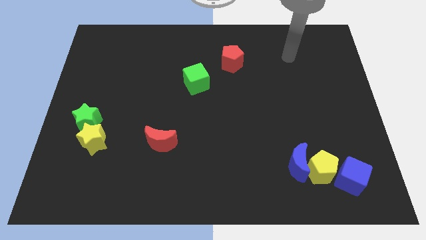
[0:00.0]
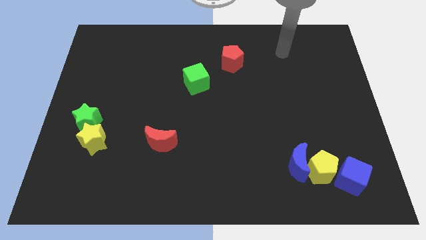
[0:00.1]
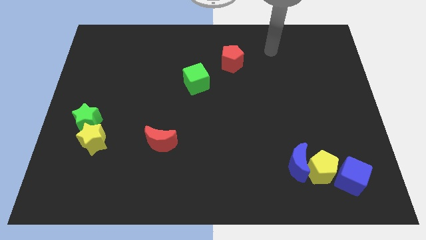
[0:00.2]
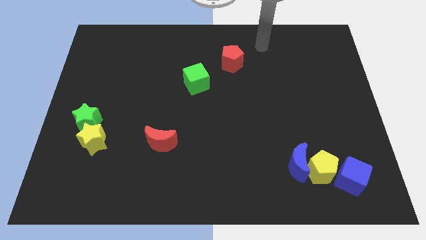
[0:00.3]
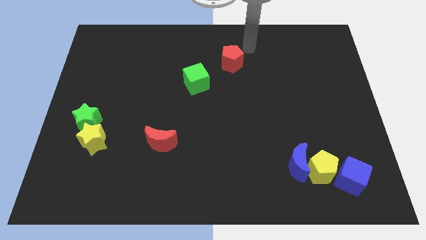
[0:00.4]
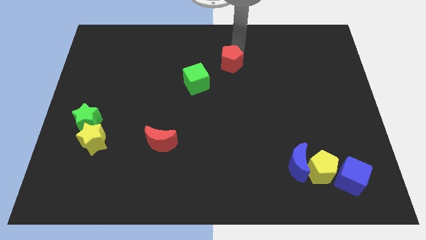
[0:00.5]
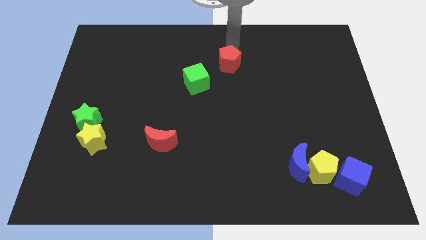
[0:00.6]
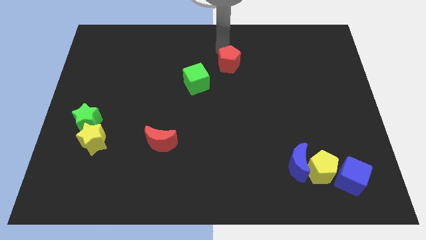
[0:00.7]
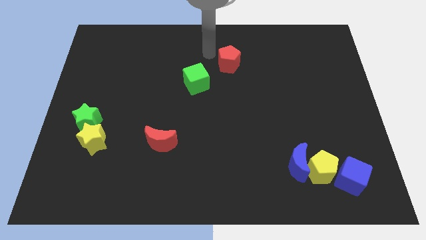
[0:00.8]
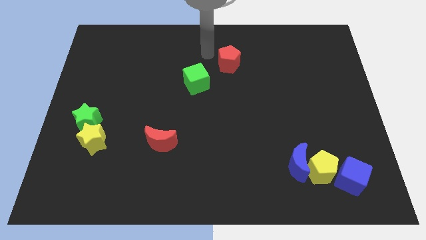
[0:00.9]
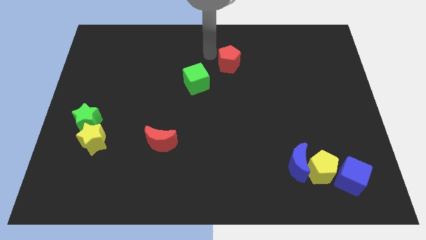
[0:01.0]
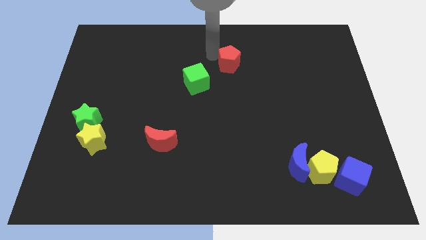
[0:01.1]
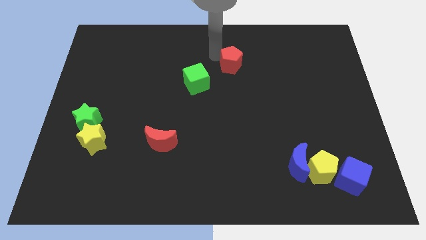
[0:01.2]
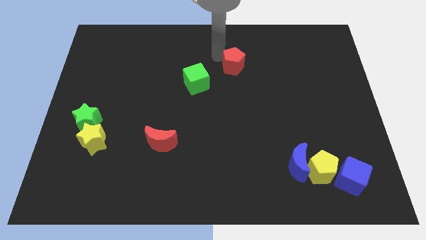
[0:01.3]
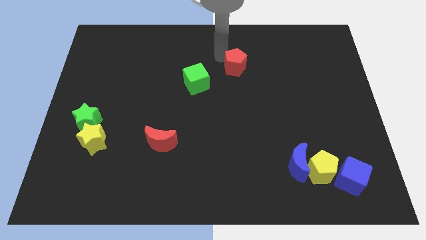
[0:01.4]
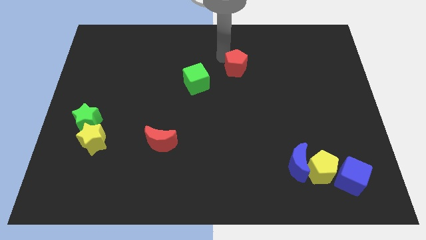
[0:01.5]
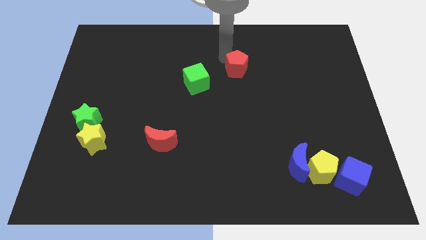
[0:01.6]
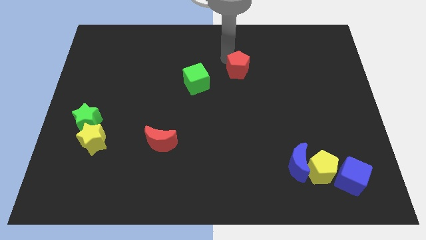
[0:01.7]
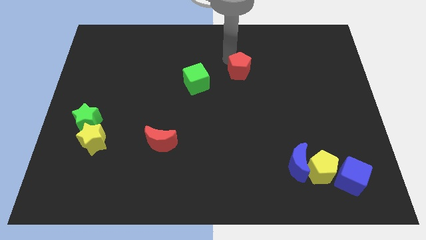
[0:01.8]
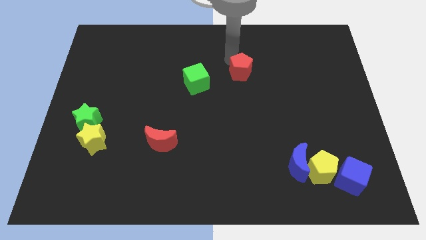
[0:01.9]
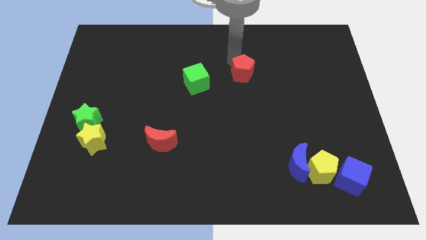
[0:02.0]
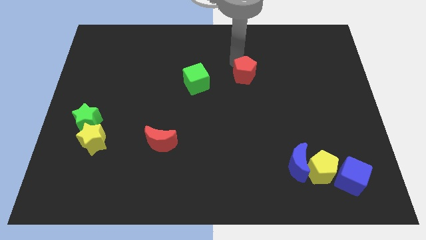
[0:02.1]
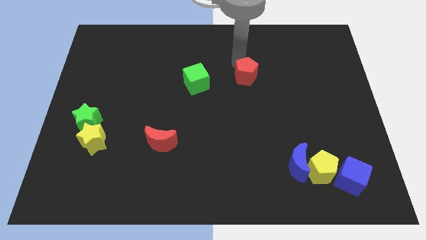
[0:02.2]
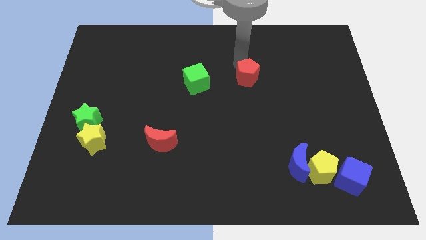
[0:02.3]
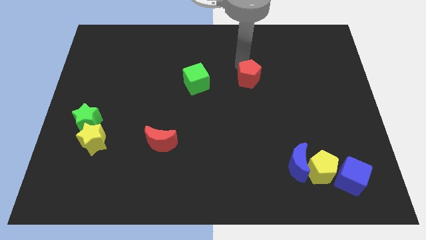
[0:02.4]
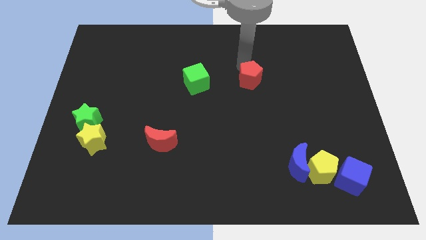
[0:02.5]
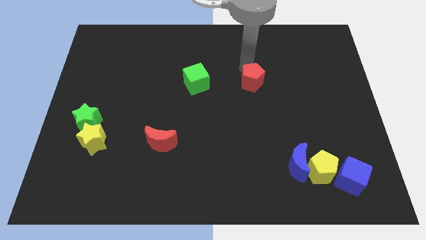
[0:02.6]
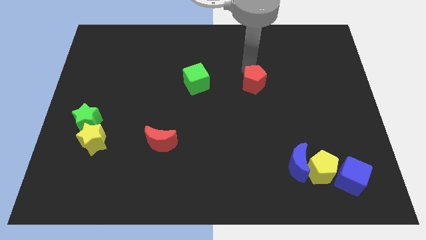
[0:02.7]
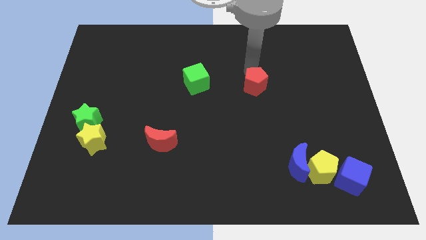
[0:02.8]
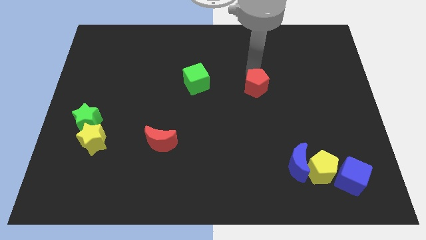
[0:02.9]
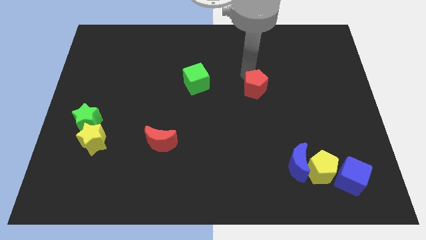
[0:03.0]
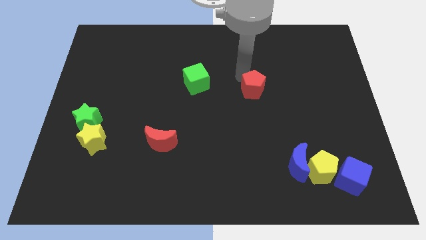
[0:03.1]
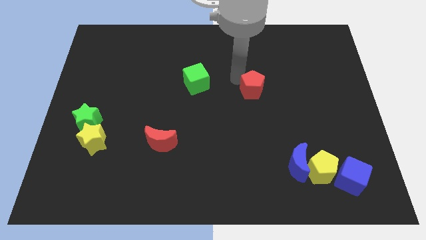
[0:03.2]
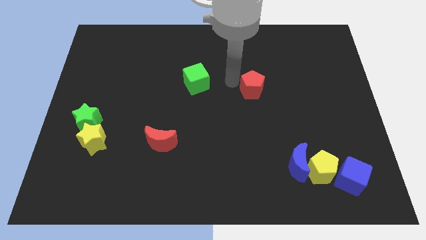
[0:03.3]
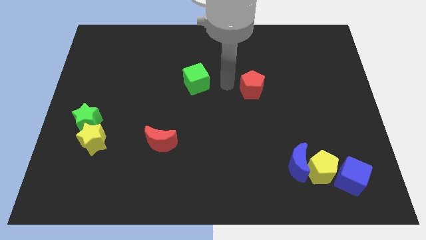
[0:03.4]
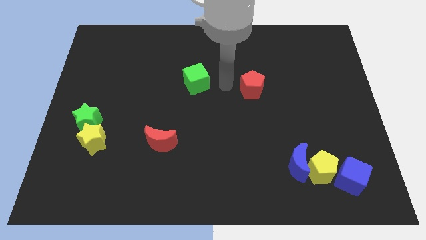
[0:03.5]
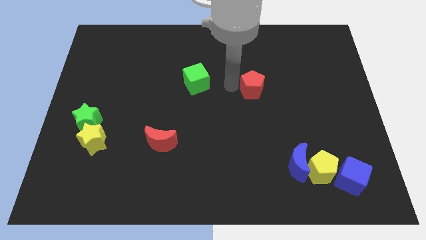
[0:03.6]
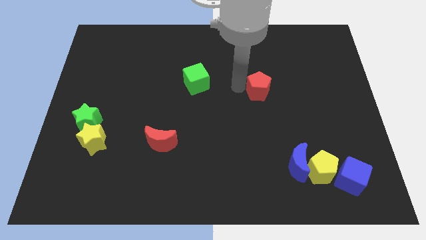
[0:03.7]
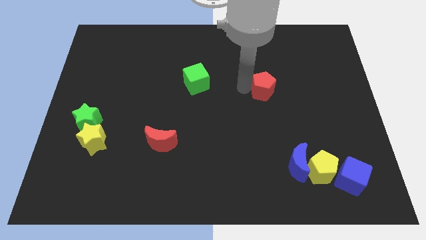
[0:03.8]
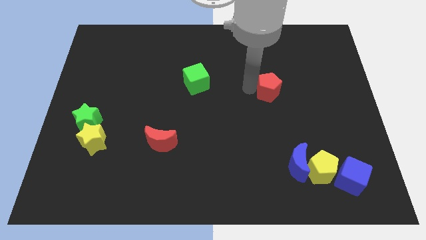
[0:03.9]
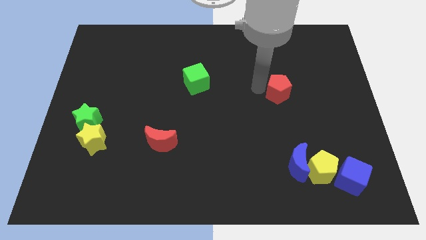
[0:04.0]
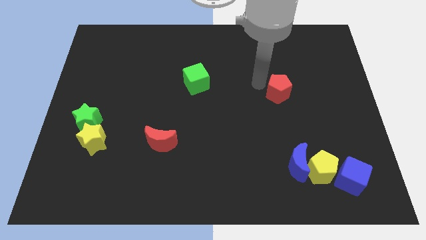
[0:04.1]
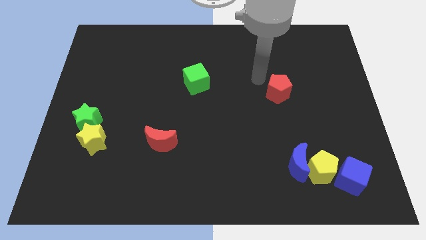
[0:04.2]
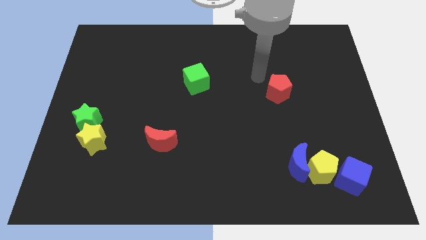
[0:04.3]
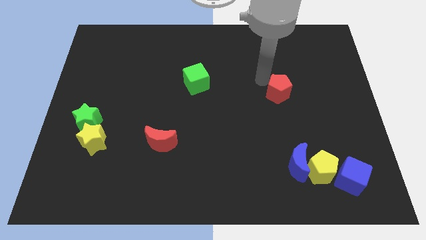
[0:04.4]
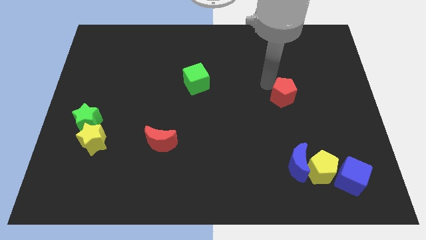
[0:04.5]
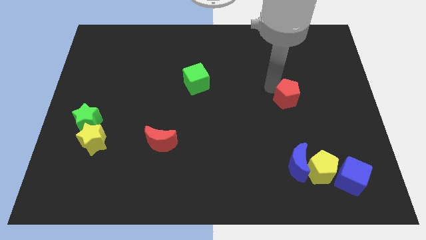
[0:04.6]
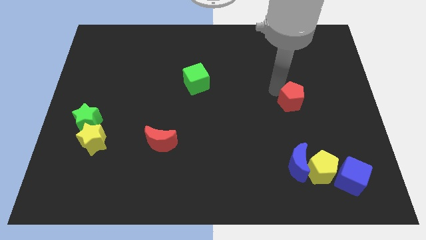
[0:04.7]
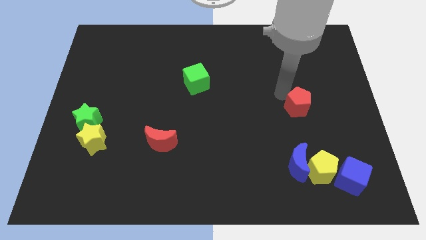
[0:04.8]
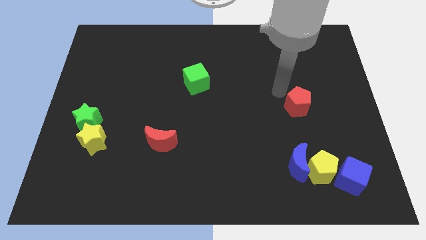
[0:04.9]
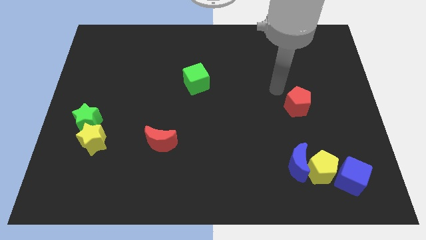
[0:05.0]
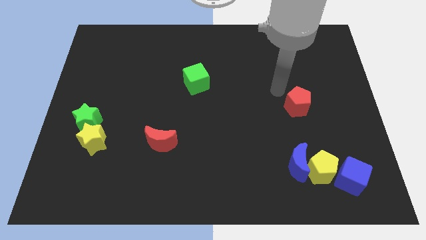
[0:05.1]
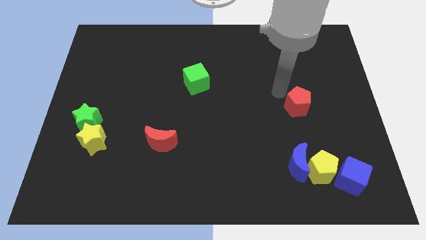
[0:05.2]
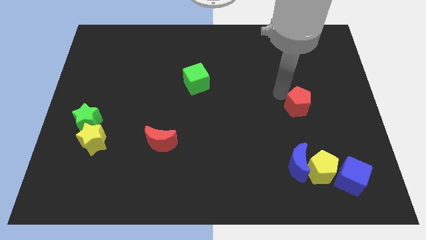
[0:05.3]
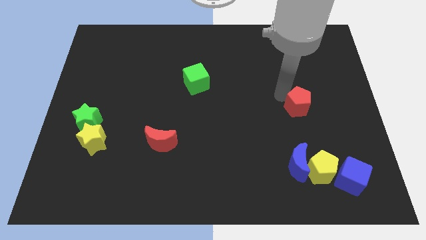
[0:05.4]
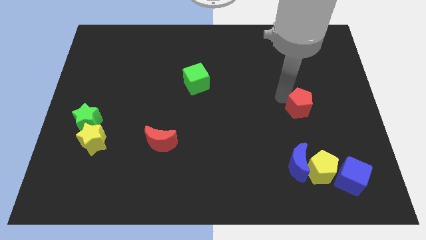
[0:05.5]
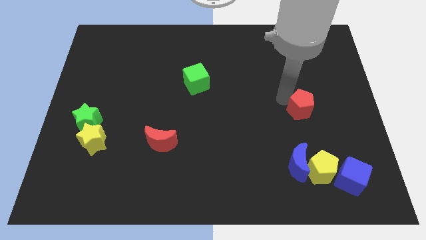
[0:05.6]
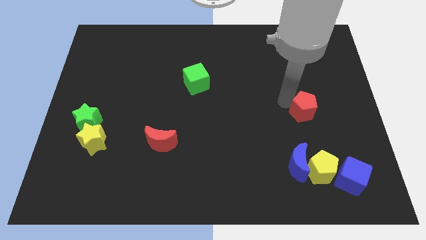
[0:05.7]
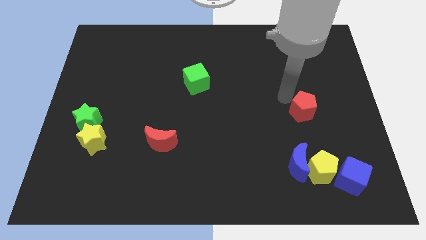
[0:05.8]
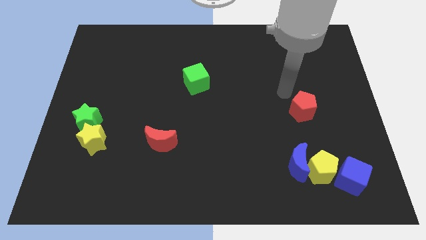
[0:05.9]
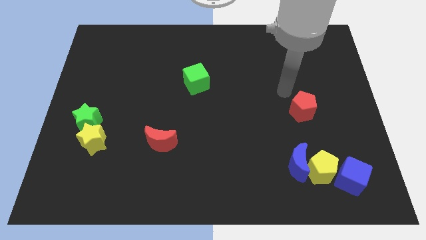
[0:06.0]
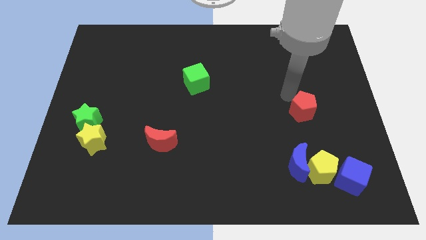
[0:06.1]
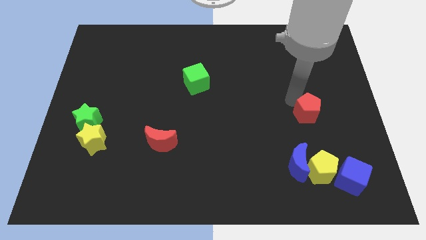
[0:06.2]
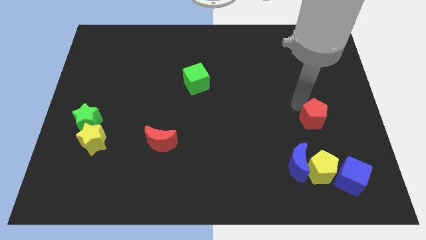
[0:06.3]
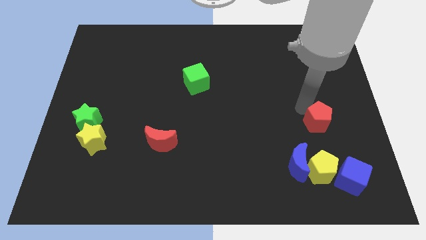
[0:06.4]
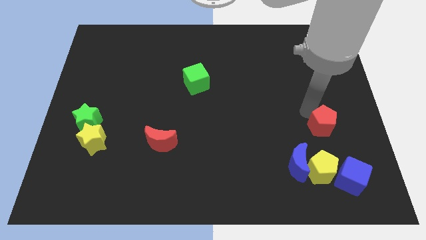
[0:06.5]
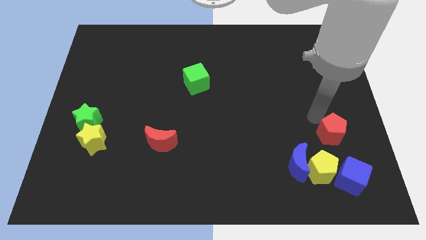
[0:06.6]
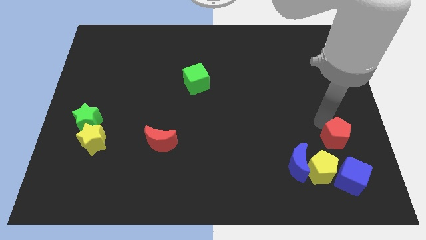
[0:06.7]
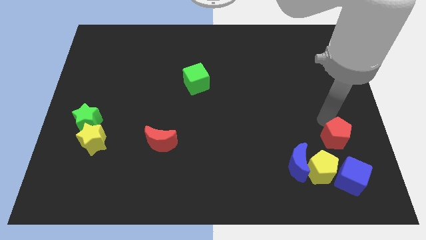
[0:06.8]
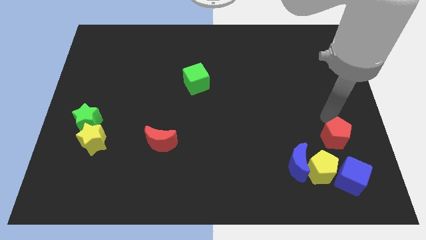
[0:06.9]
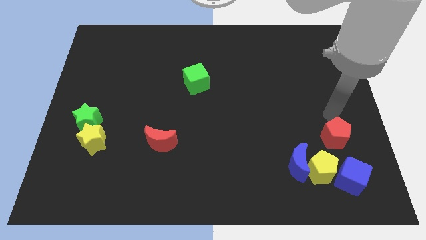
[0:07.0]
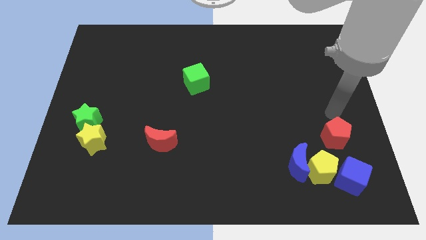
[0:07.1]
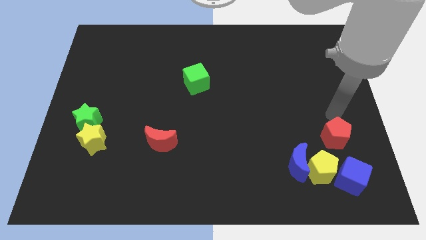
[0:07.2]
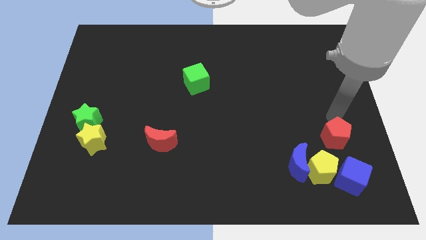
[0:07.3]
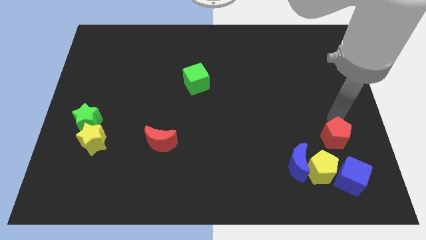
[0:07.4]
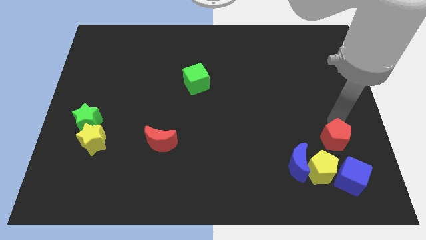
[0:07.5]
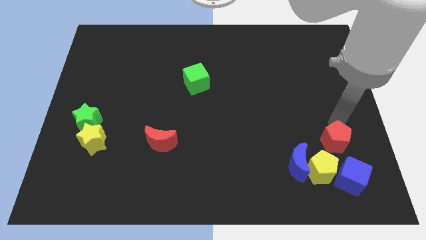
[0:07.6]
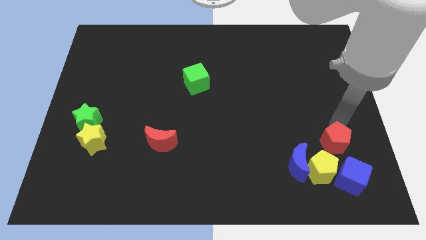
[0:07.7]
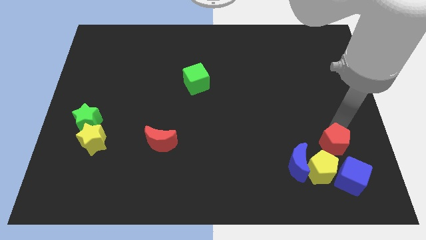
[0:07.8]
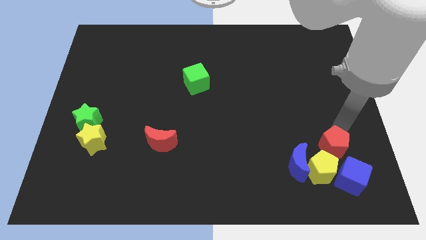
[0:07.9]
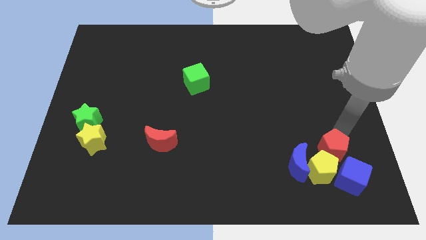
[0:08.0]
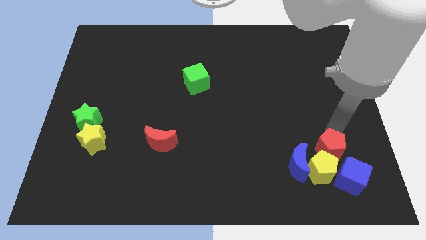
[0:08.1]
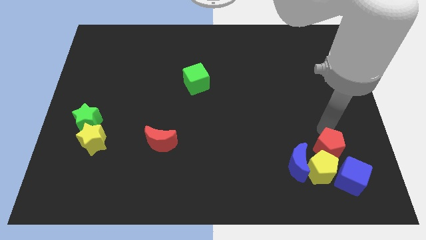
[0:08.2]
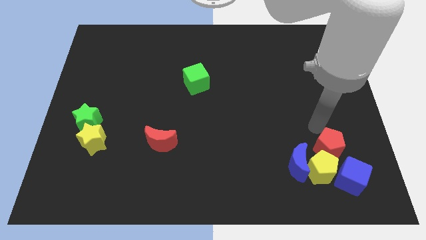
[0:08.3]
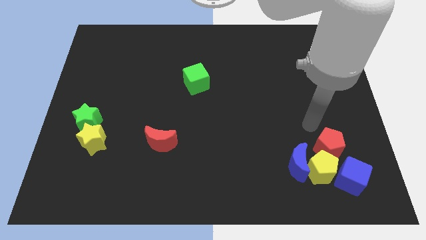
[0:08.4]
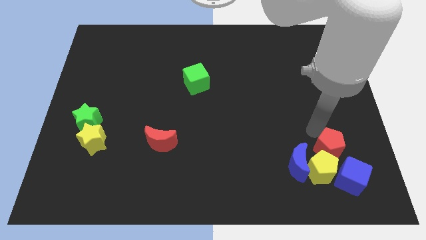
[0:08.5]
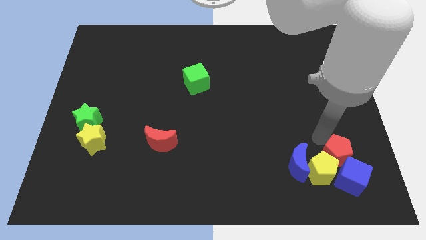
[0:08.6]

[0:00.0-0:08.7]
put the red pentagon next to the blue cube
